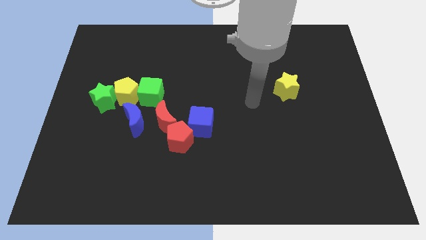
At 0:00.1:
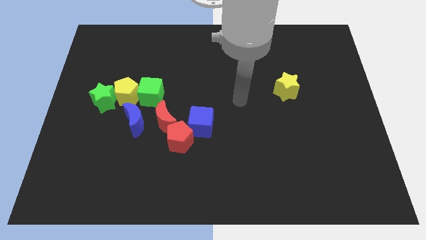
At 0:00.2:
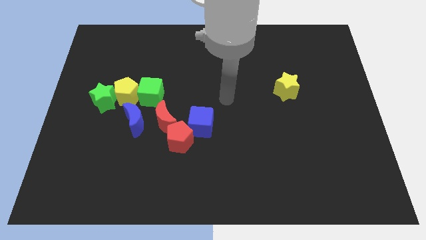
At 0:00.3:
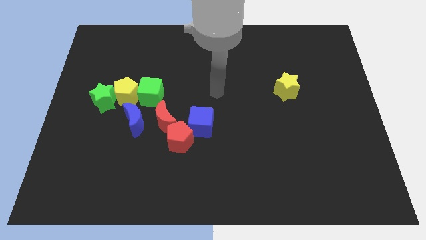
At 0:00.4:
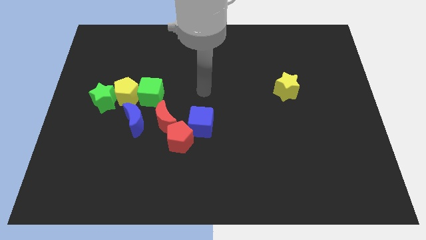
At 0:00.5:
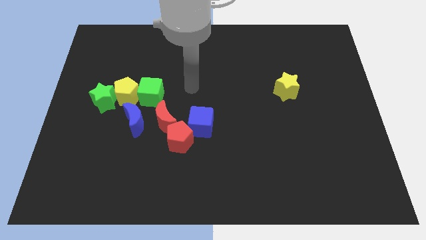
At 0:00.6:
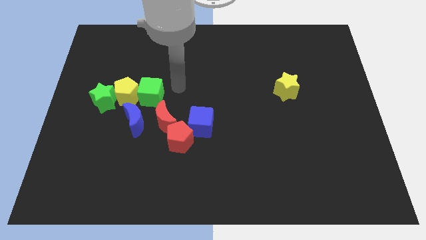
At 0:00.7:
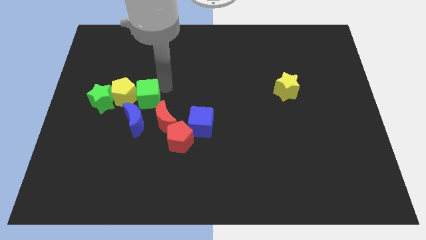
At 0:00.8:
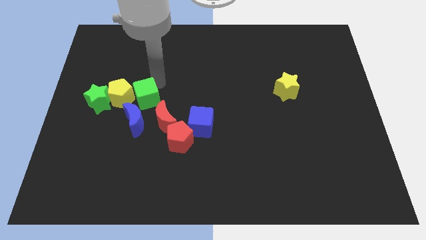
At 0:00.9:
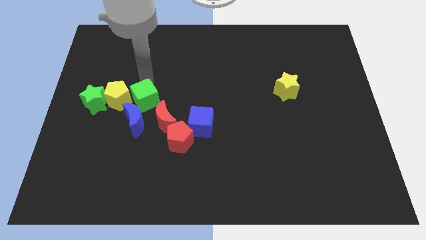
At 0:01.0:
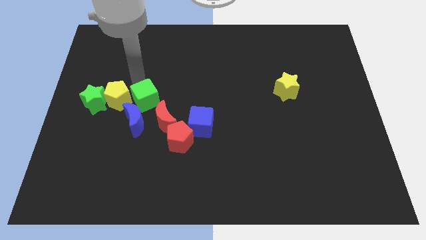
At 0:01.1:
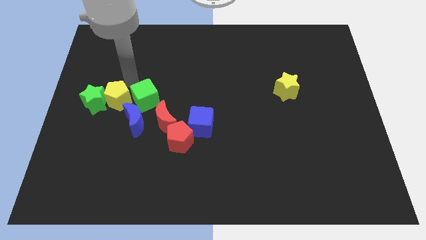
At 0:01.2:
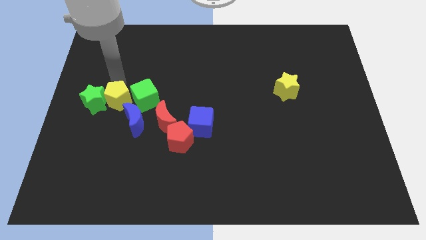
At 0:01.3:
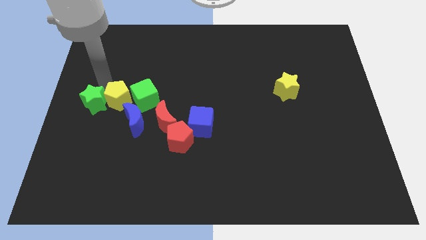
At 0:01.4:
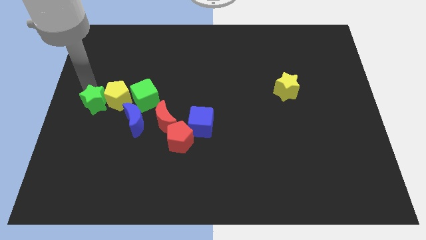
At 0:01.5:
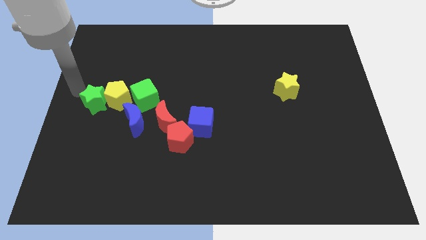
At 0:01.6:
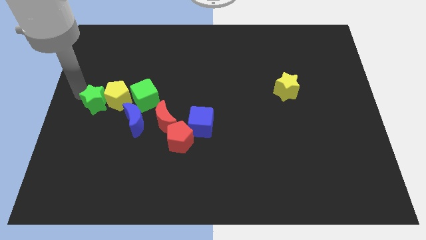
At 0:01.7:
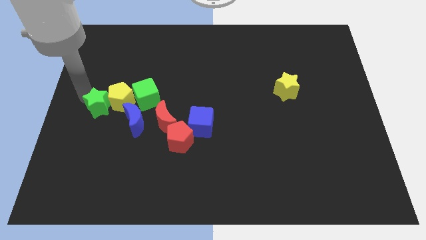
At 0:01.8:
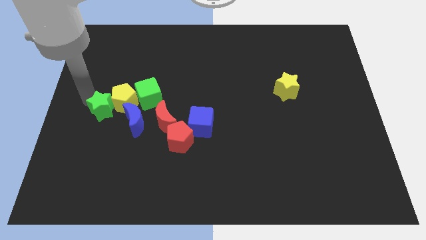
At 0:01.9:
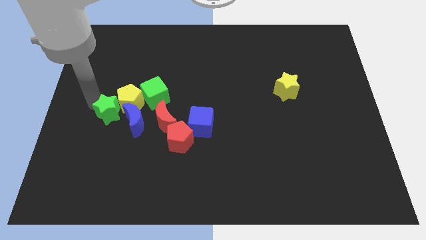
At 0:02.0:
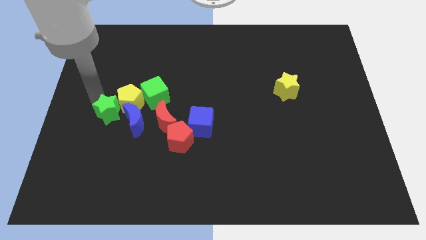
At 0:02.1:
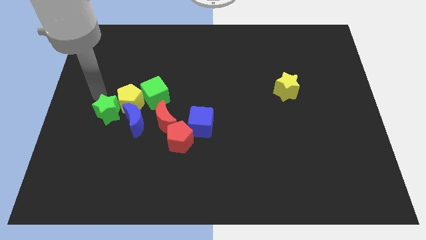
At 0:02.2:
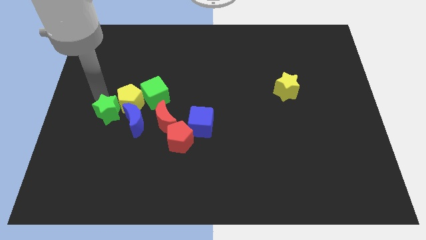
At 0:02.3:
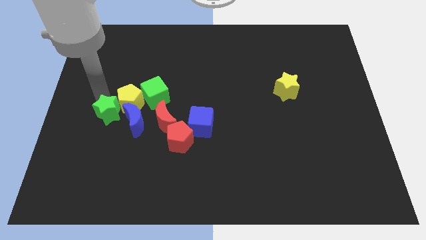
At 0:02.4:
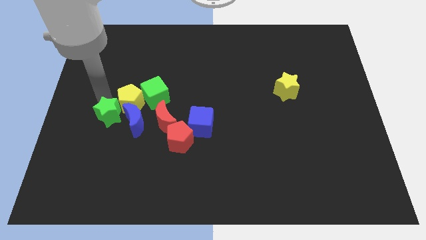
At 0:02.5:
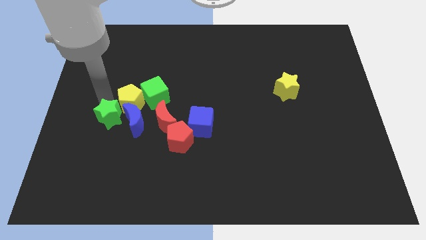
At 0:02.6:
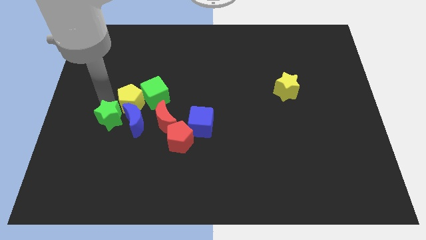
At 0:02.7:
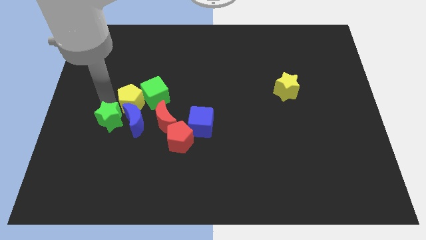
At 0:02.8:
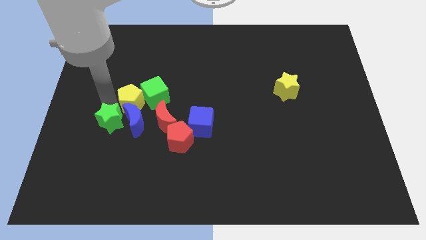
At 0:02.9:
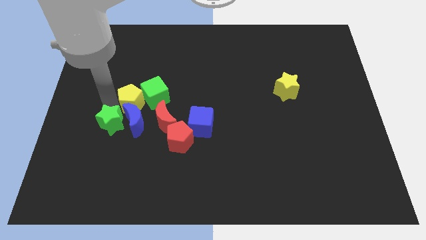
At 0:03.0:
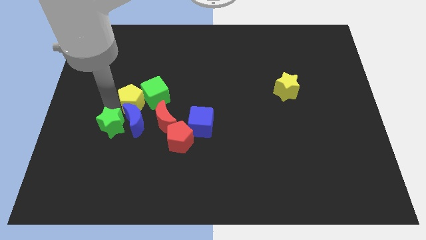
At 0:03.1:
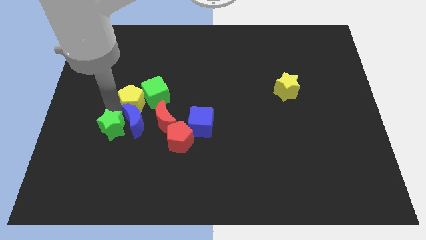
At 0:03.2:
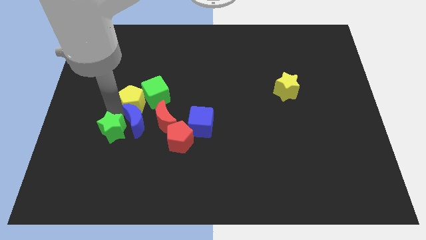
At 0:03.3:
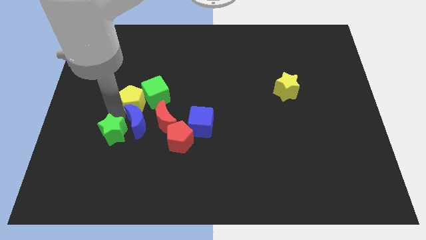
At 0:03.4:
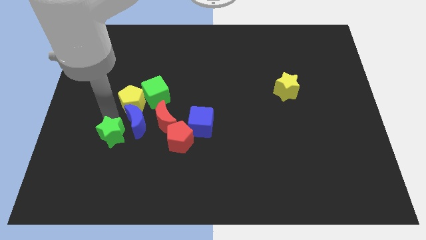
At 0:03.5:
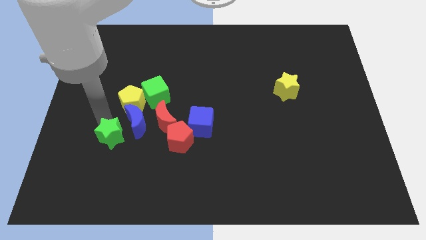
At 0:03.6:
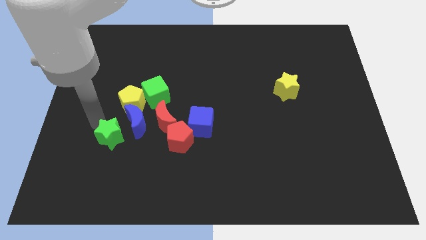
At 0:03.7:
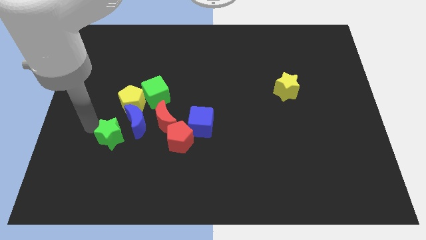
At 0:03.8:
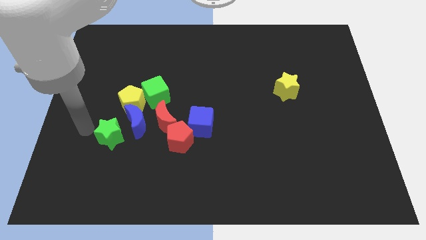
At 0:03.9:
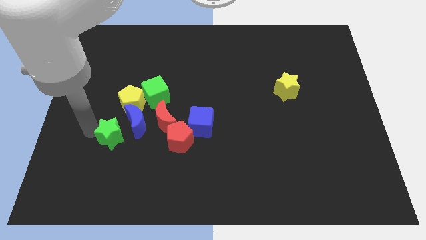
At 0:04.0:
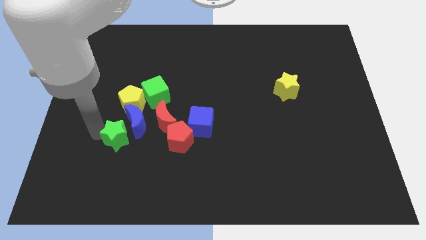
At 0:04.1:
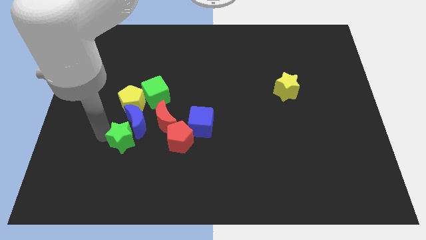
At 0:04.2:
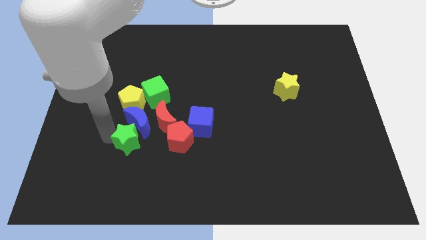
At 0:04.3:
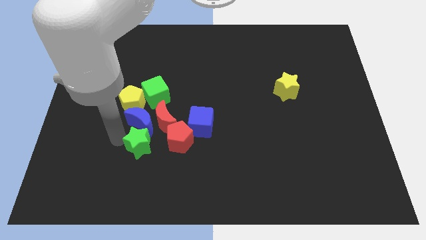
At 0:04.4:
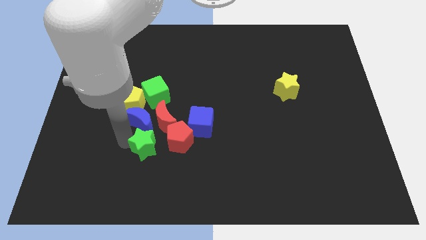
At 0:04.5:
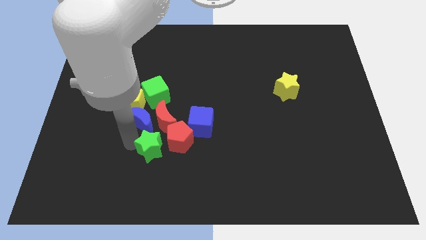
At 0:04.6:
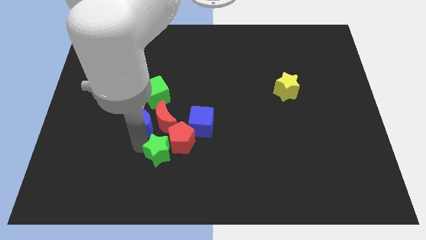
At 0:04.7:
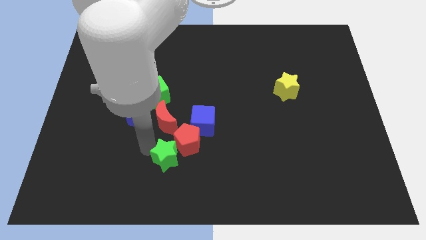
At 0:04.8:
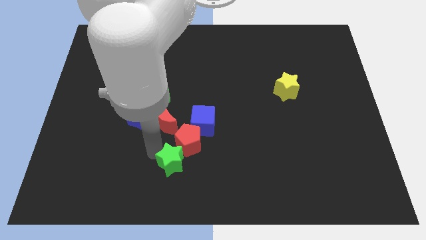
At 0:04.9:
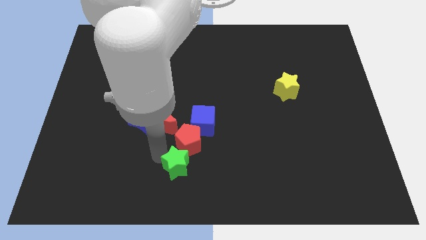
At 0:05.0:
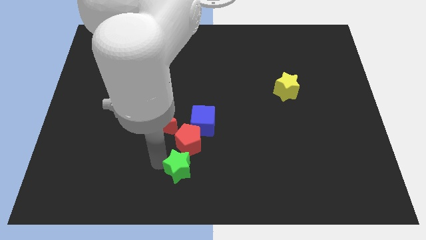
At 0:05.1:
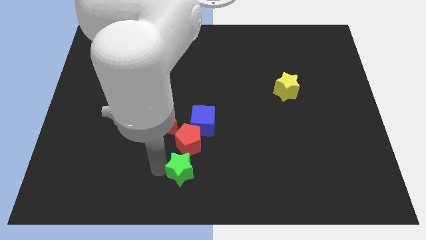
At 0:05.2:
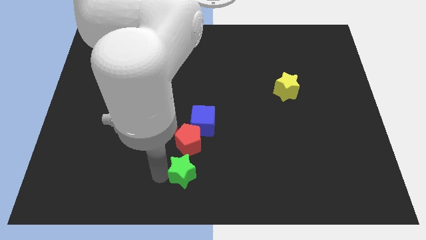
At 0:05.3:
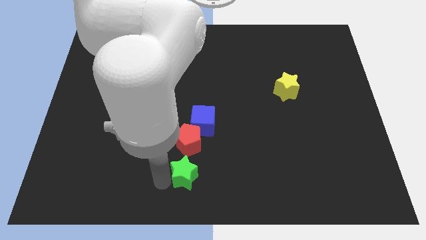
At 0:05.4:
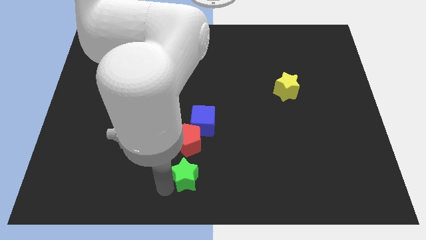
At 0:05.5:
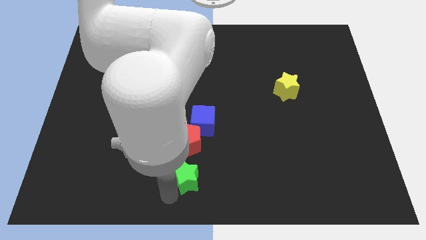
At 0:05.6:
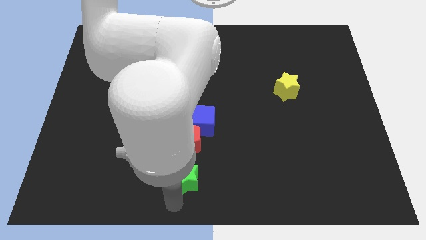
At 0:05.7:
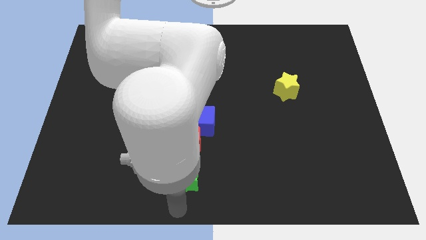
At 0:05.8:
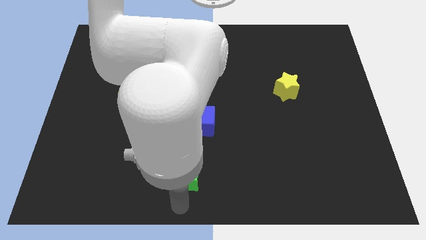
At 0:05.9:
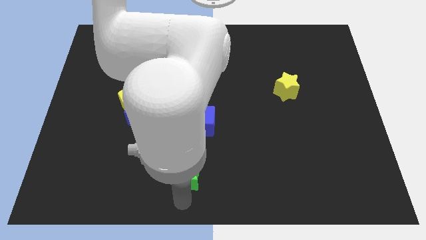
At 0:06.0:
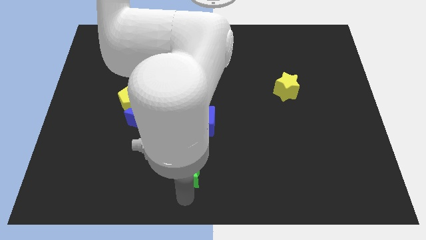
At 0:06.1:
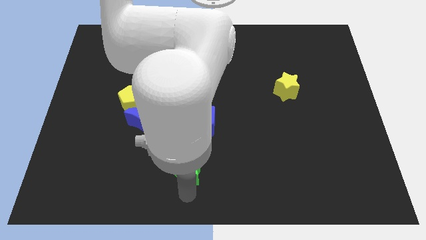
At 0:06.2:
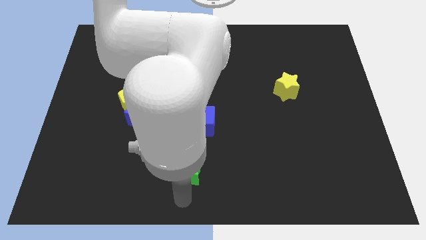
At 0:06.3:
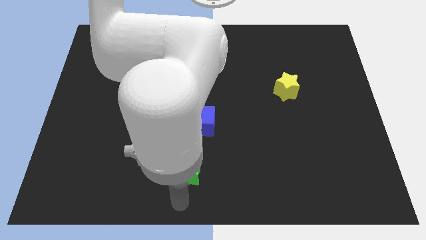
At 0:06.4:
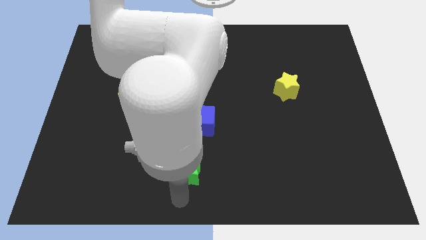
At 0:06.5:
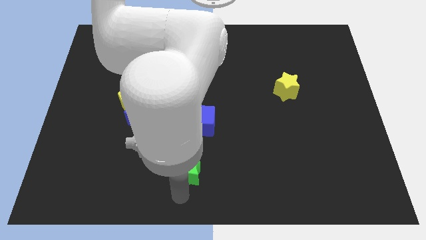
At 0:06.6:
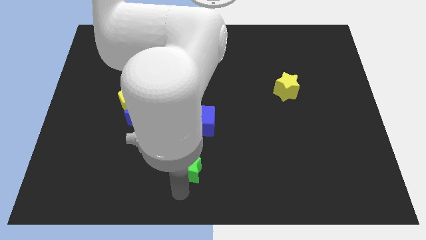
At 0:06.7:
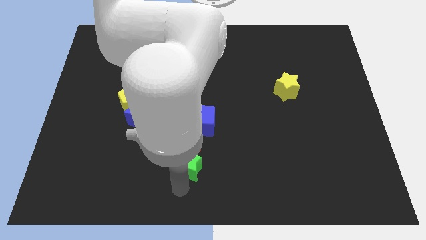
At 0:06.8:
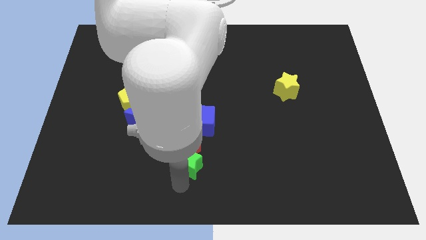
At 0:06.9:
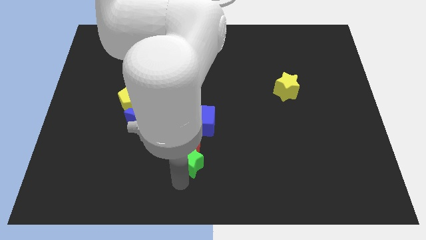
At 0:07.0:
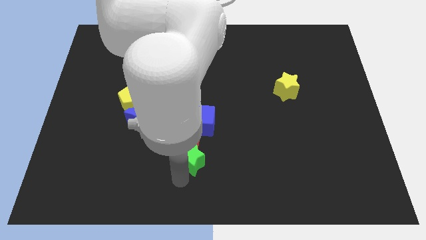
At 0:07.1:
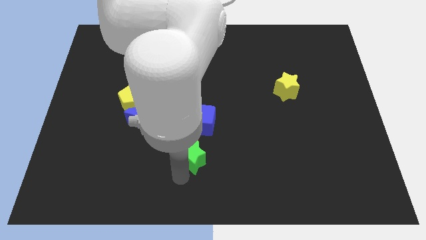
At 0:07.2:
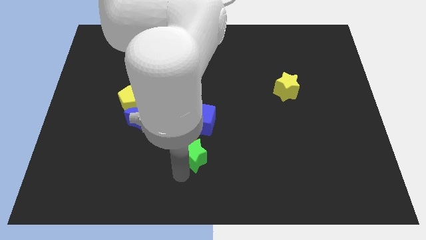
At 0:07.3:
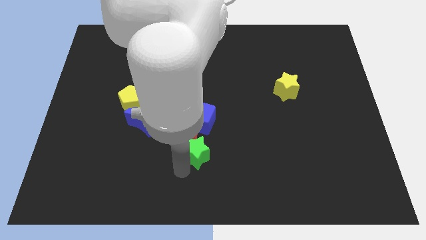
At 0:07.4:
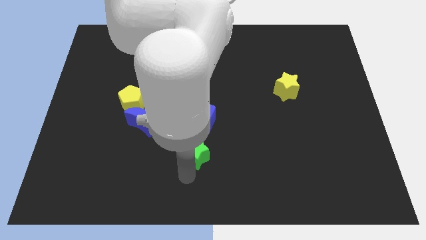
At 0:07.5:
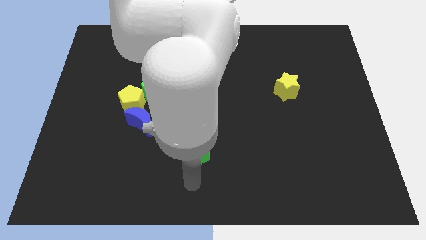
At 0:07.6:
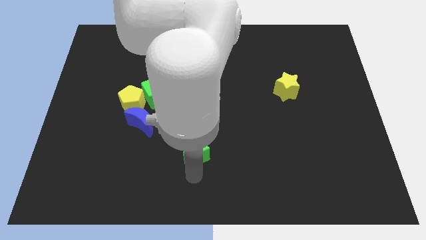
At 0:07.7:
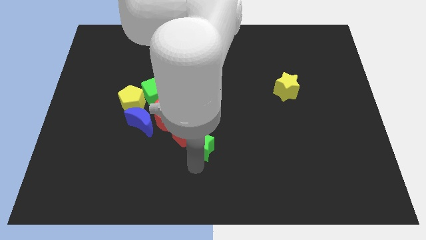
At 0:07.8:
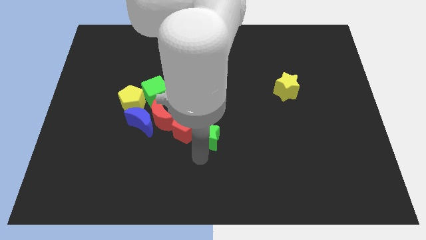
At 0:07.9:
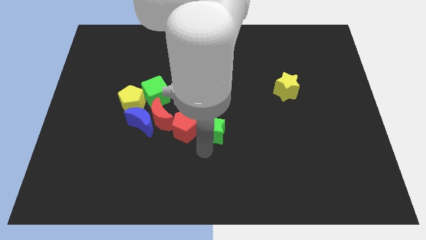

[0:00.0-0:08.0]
slide the green star close to the blue cube
